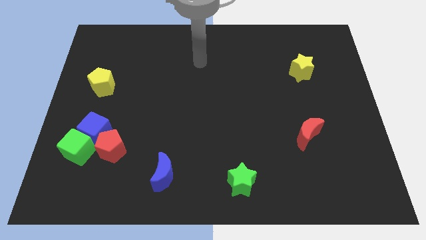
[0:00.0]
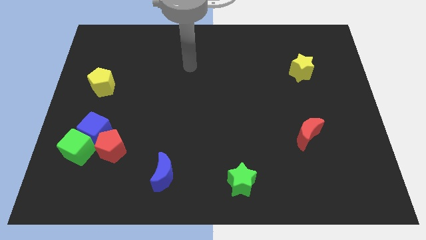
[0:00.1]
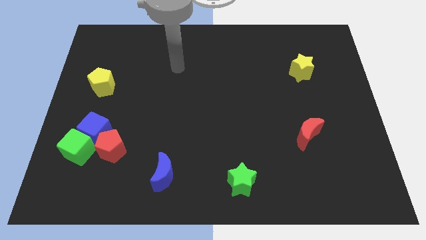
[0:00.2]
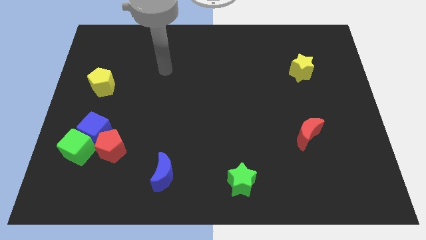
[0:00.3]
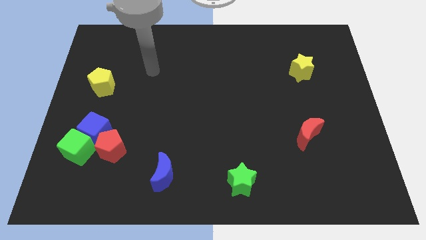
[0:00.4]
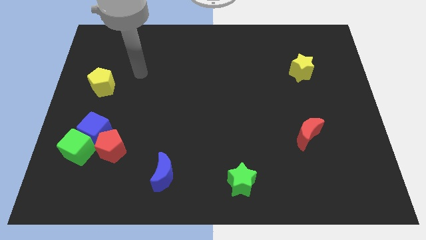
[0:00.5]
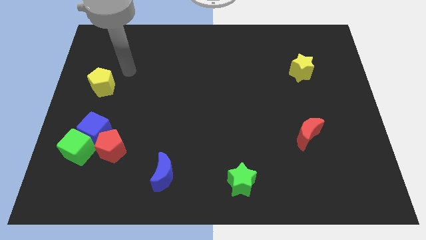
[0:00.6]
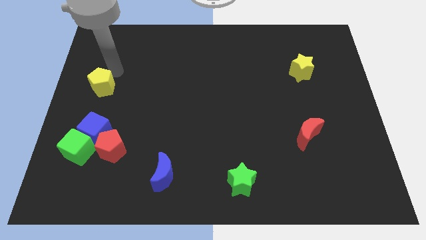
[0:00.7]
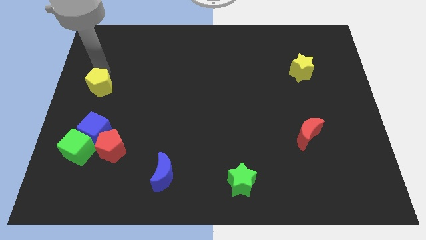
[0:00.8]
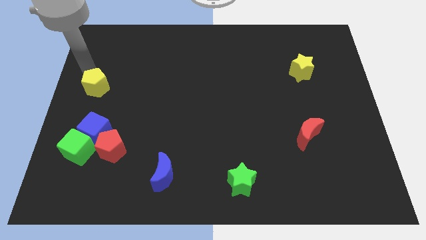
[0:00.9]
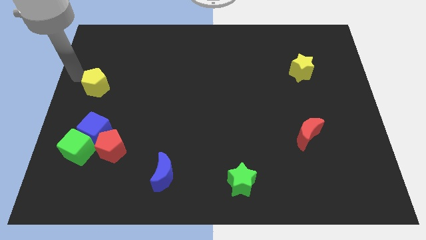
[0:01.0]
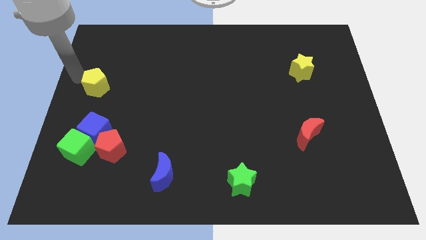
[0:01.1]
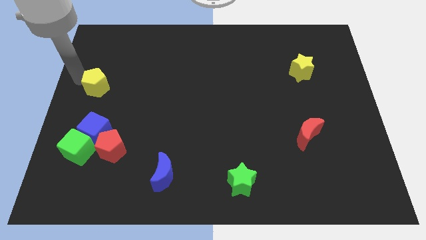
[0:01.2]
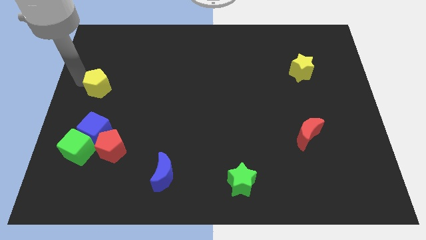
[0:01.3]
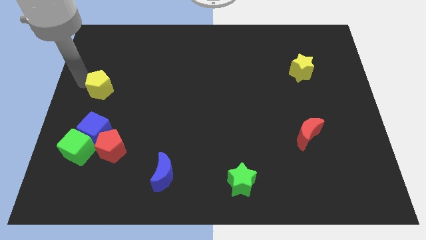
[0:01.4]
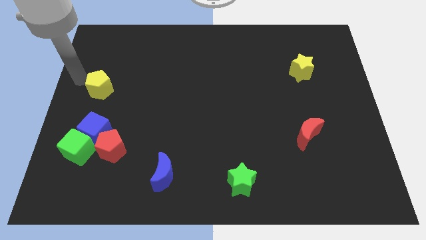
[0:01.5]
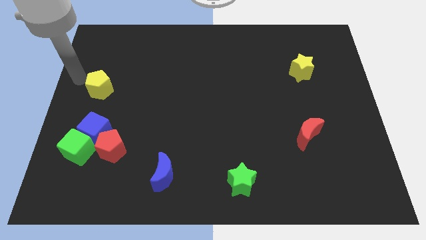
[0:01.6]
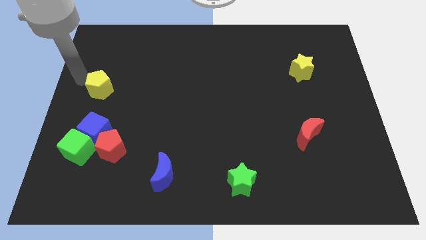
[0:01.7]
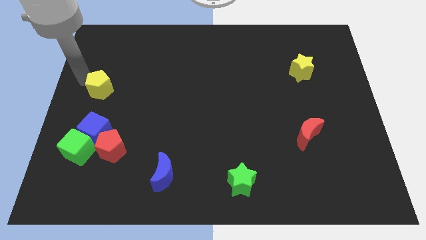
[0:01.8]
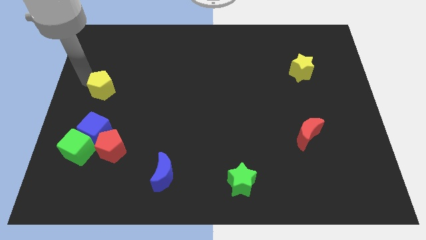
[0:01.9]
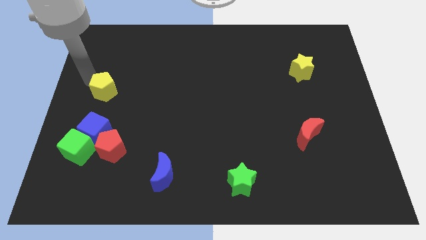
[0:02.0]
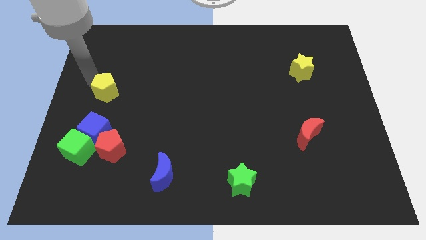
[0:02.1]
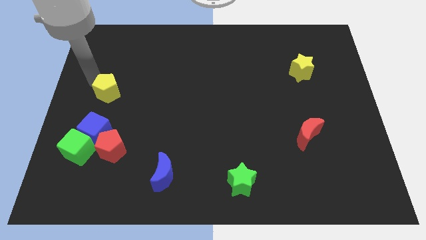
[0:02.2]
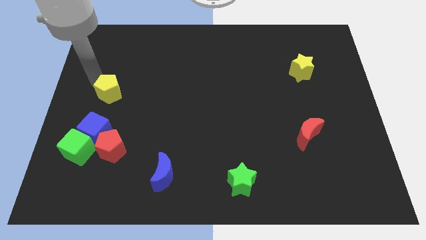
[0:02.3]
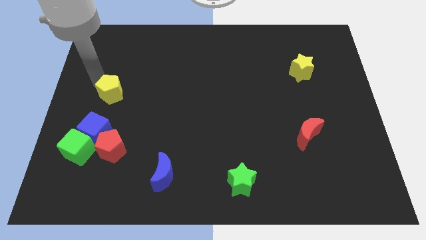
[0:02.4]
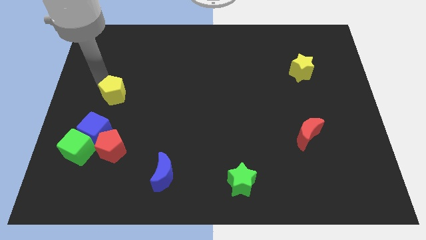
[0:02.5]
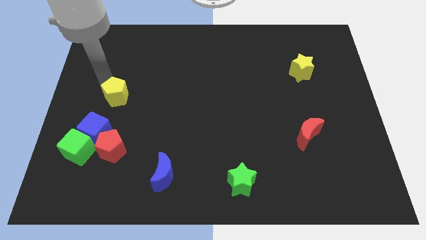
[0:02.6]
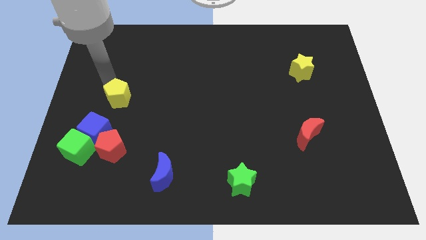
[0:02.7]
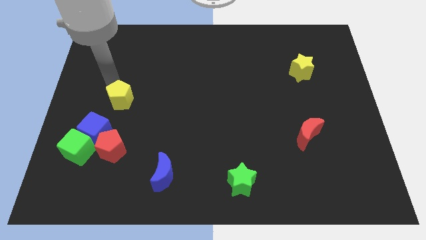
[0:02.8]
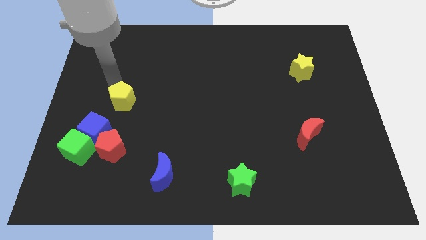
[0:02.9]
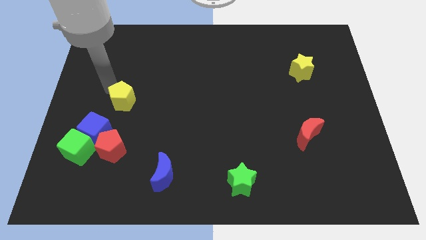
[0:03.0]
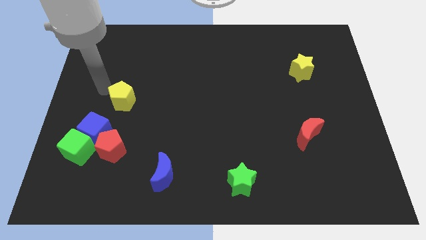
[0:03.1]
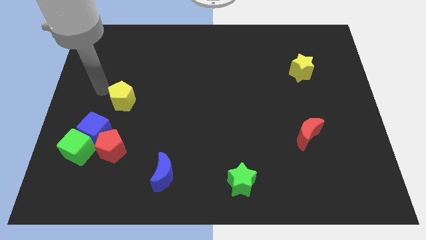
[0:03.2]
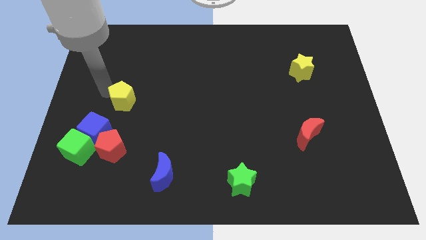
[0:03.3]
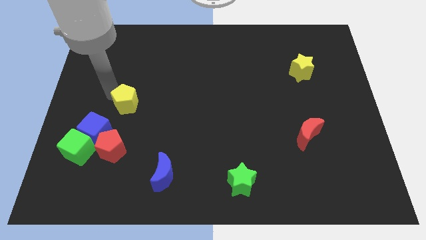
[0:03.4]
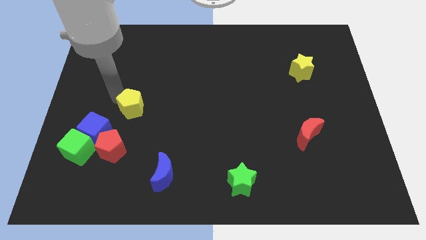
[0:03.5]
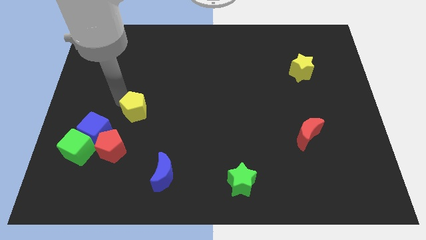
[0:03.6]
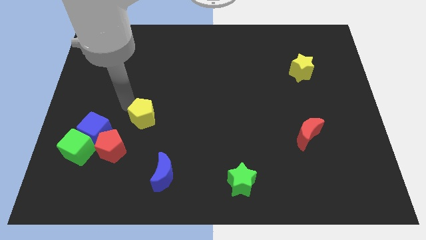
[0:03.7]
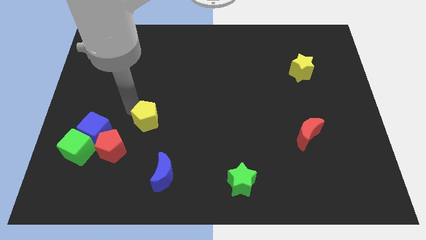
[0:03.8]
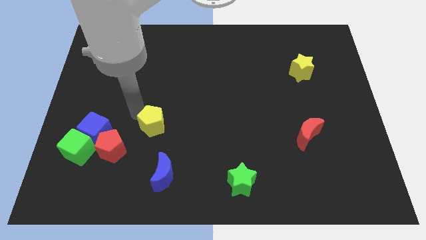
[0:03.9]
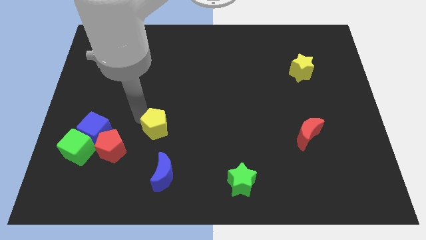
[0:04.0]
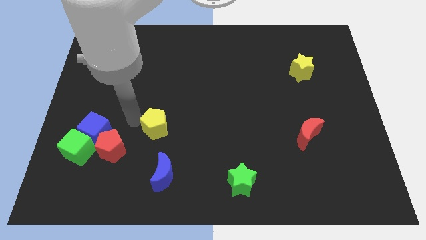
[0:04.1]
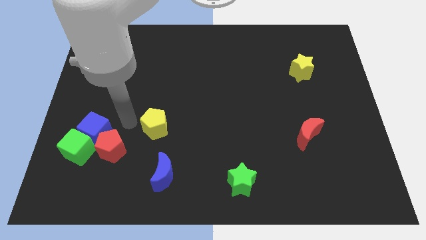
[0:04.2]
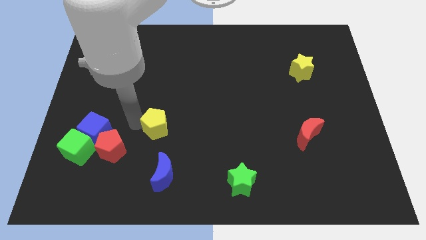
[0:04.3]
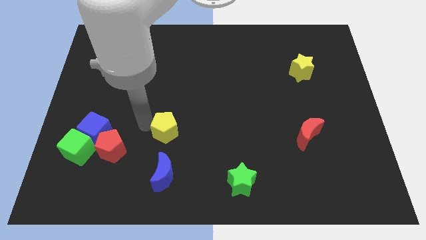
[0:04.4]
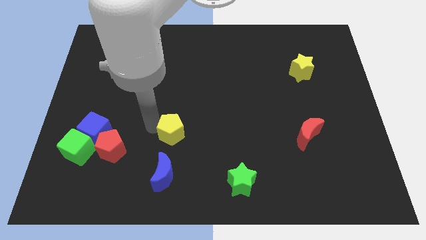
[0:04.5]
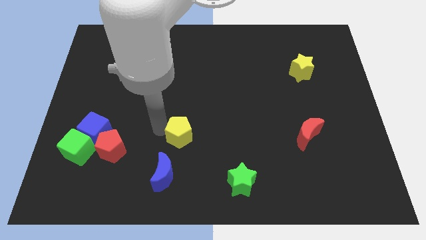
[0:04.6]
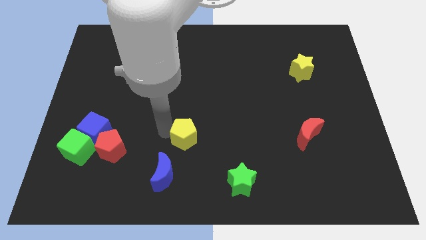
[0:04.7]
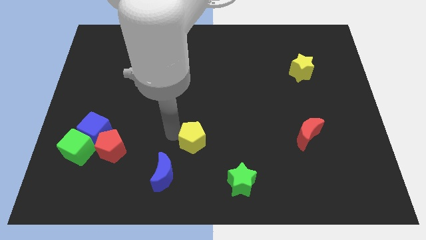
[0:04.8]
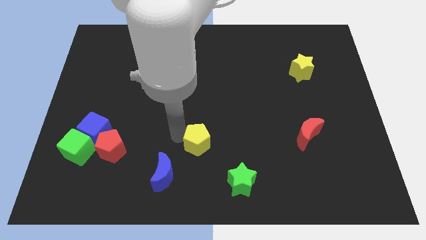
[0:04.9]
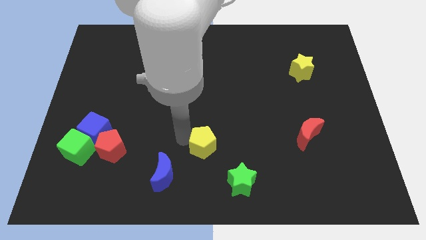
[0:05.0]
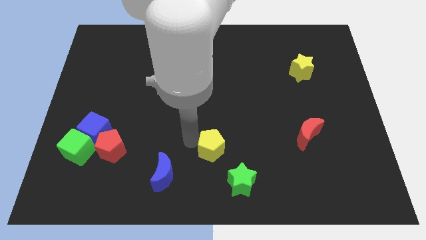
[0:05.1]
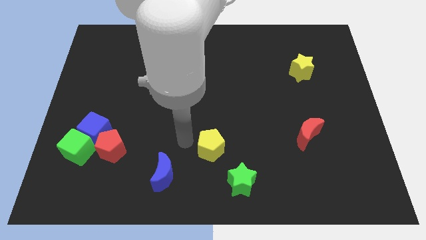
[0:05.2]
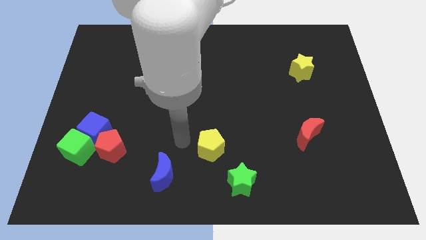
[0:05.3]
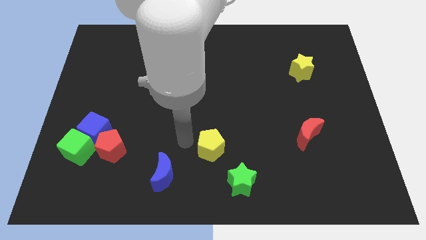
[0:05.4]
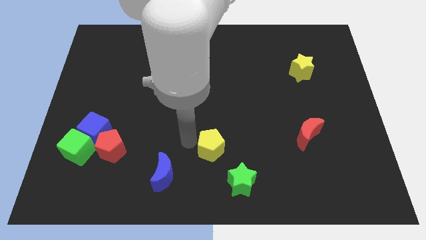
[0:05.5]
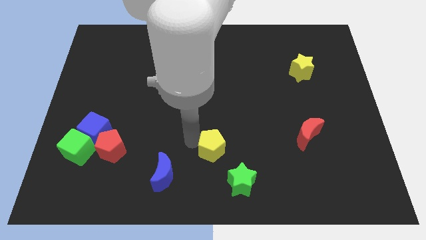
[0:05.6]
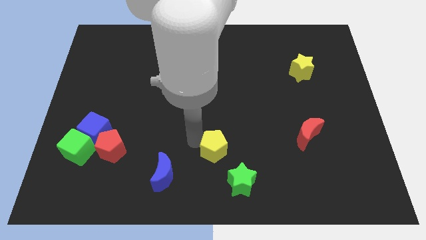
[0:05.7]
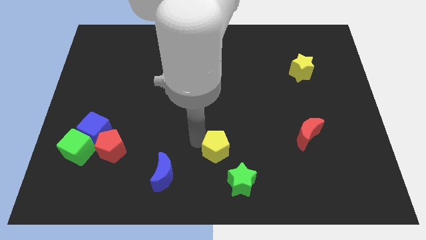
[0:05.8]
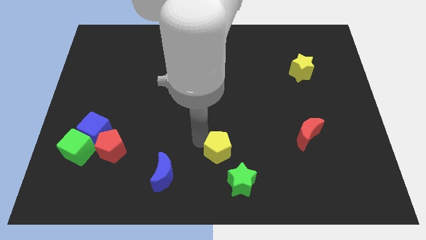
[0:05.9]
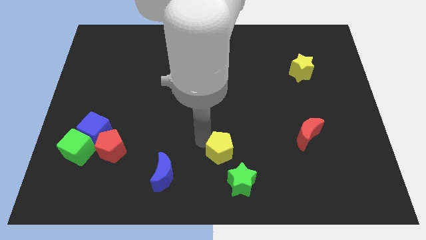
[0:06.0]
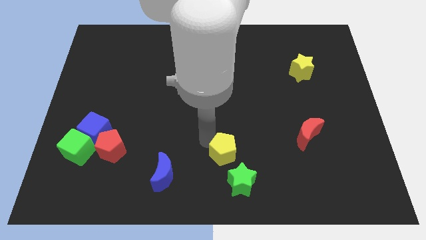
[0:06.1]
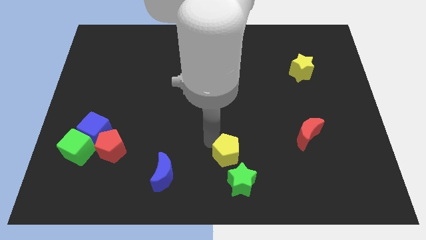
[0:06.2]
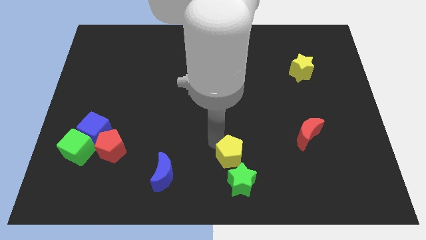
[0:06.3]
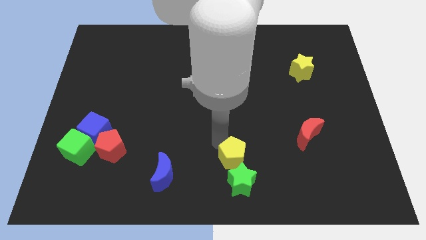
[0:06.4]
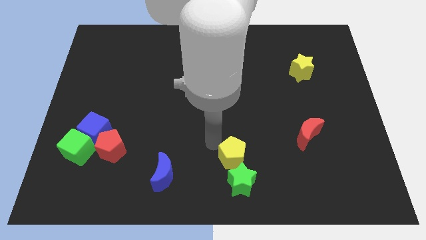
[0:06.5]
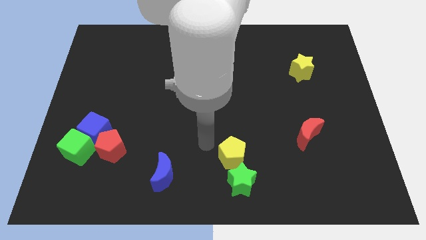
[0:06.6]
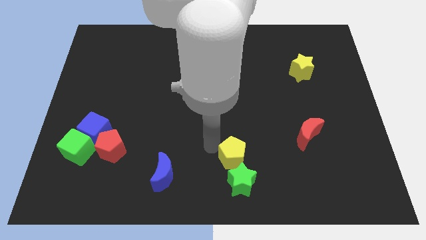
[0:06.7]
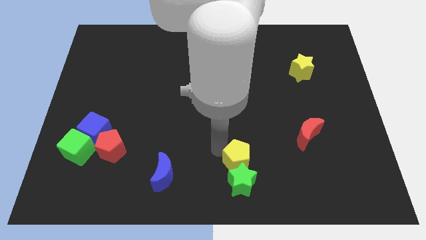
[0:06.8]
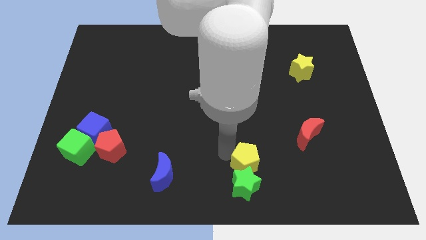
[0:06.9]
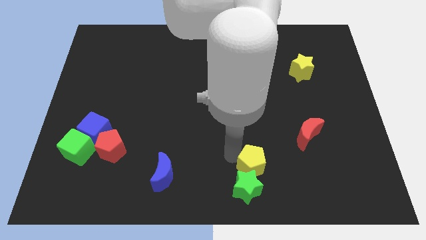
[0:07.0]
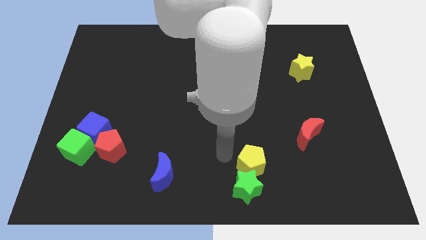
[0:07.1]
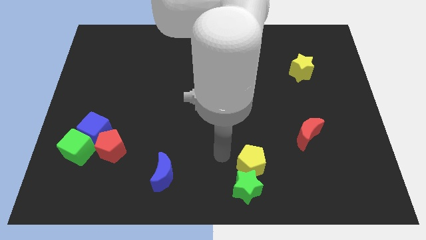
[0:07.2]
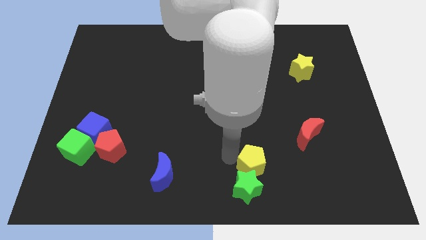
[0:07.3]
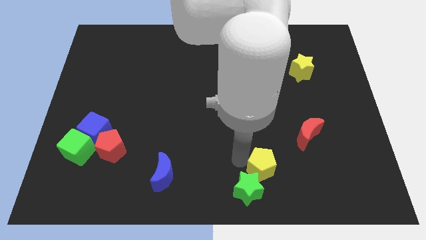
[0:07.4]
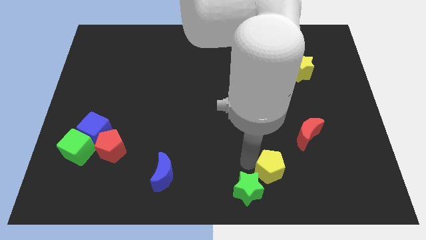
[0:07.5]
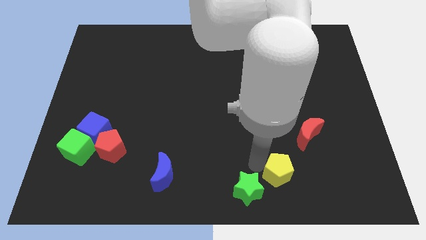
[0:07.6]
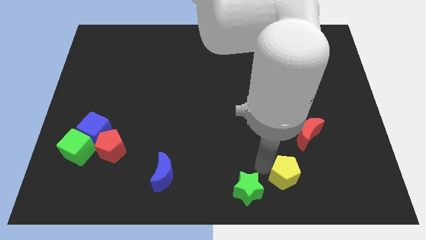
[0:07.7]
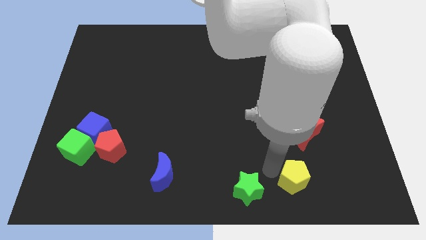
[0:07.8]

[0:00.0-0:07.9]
put the yellow pentagon to the bottom of the red moon
